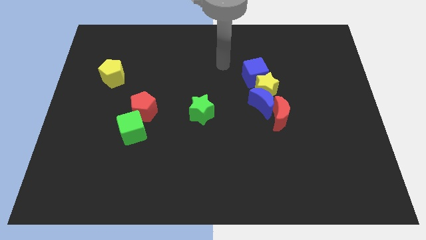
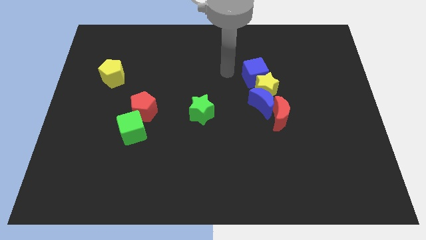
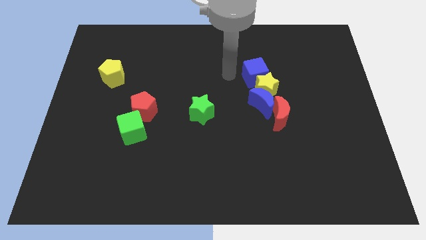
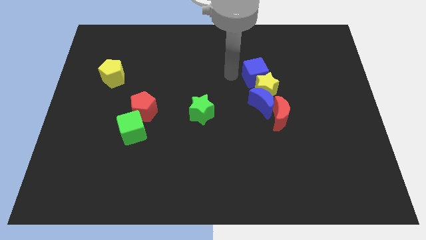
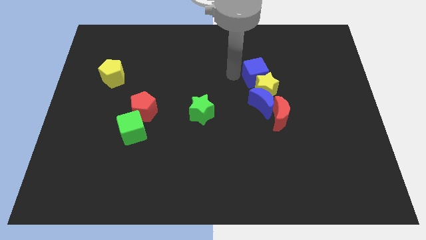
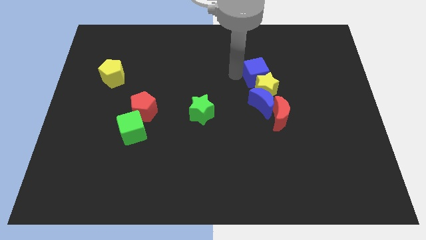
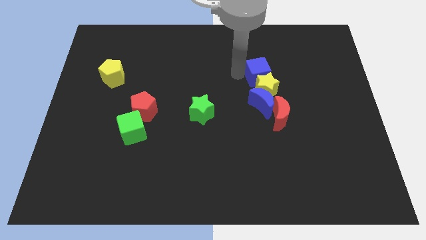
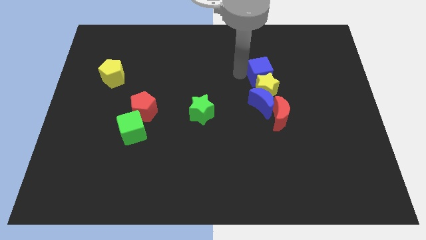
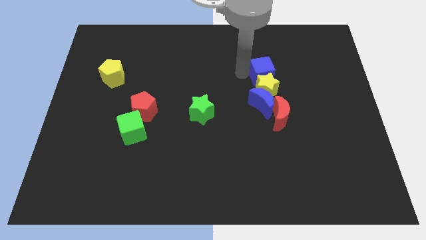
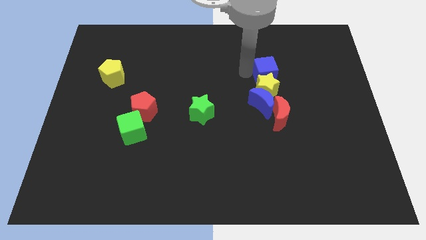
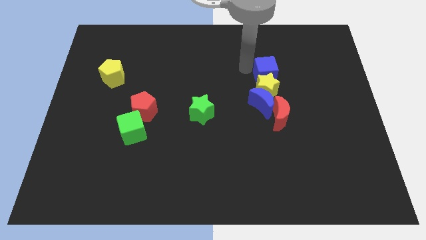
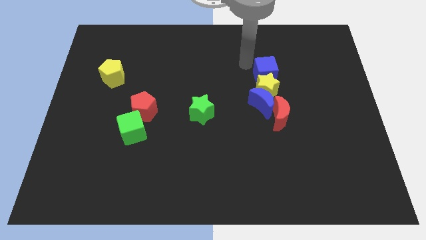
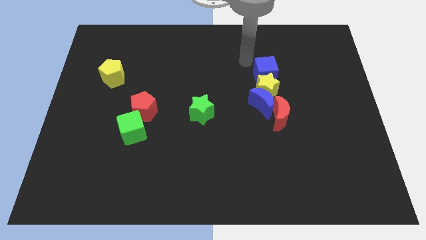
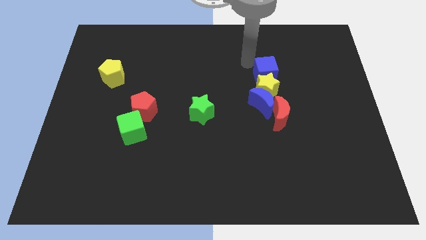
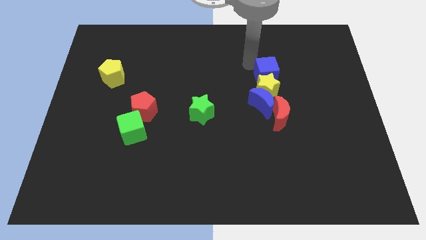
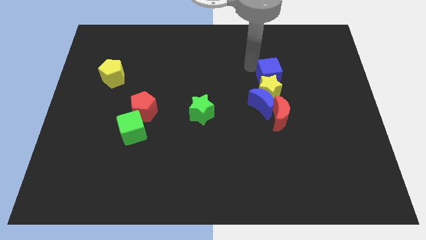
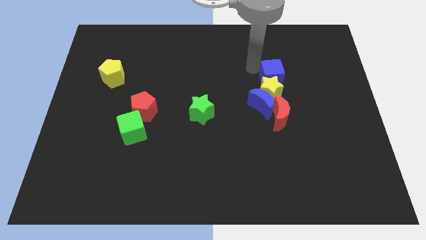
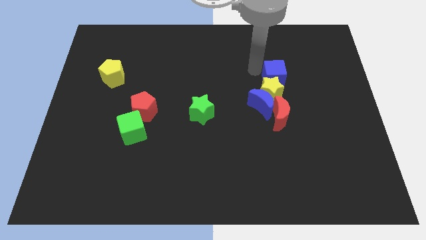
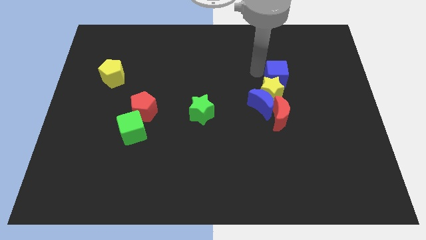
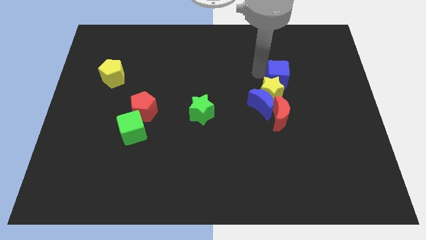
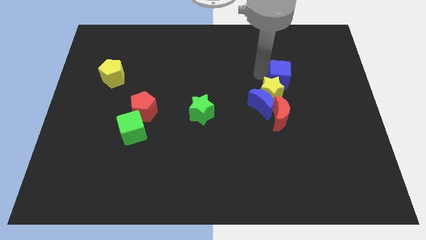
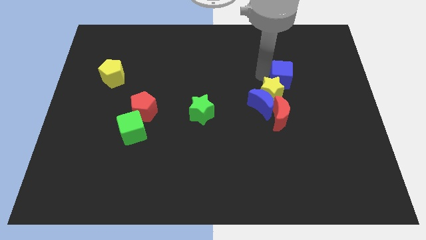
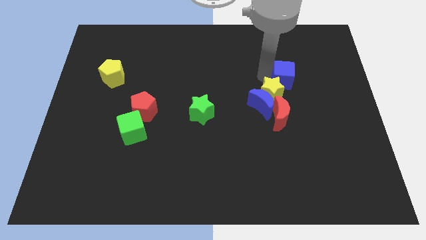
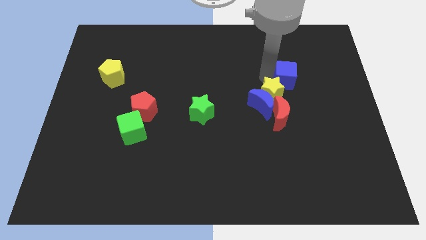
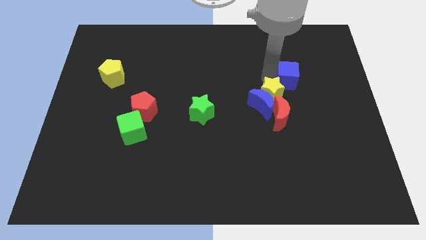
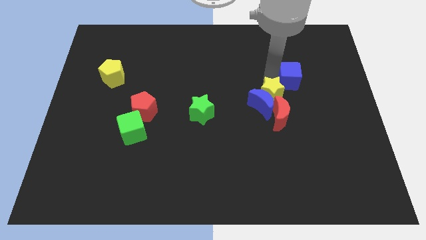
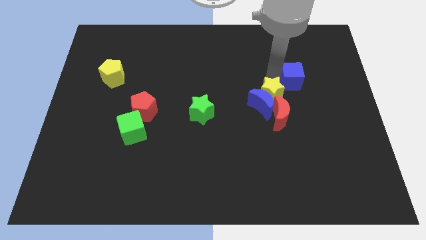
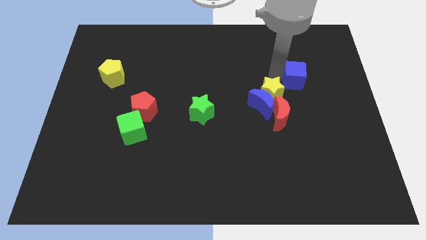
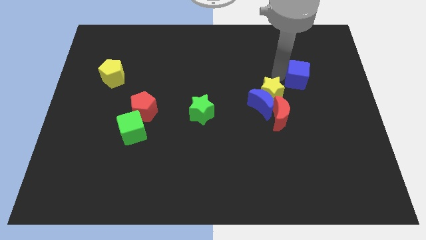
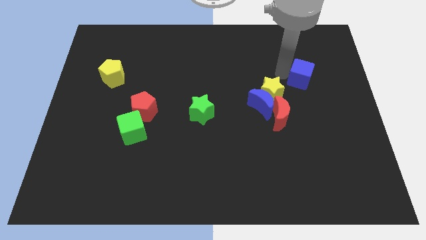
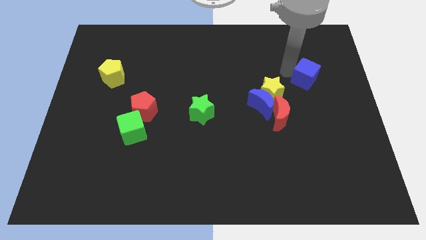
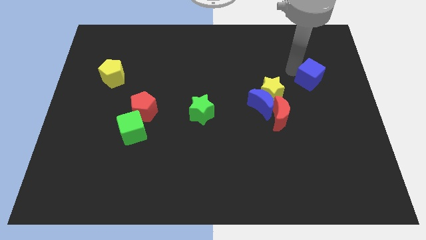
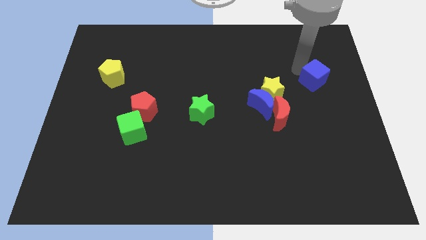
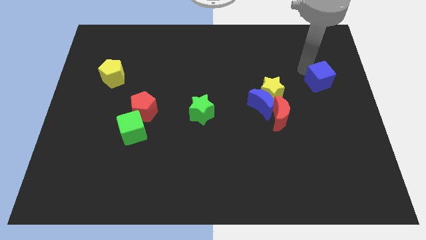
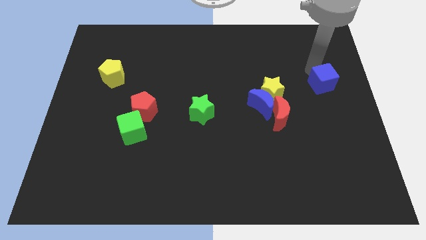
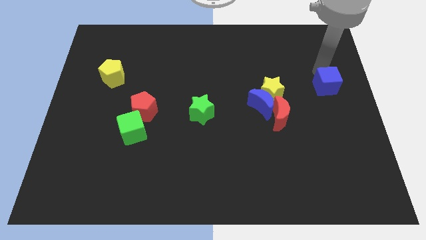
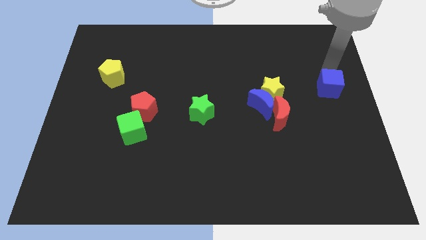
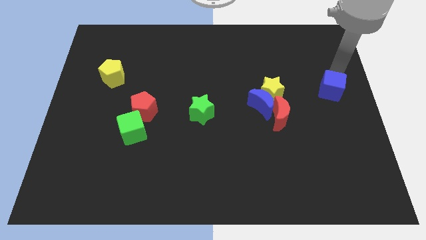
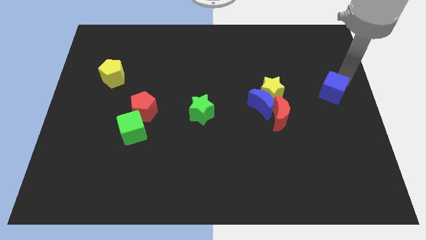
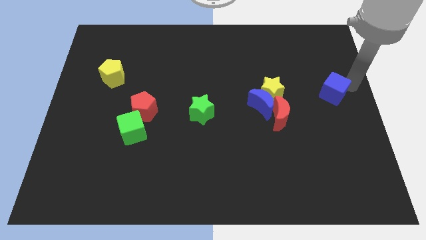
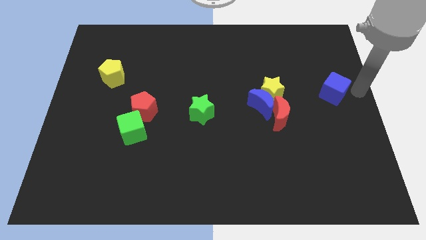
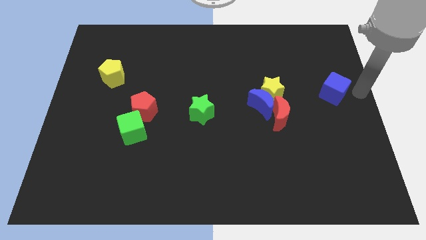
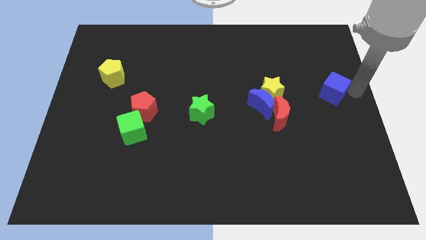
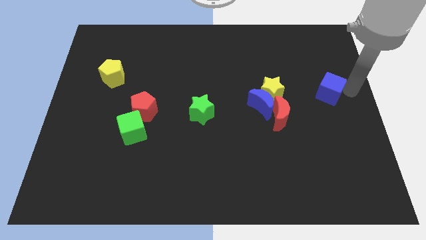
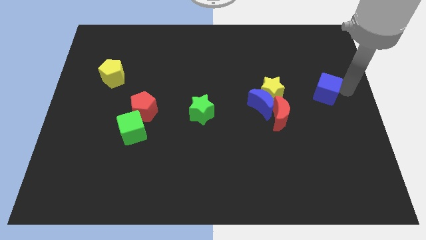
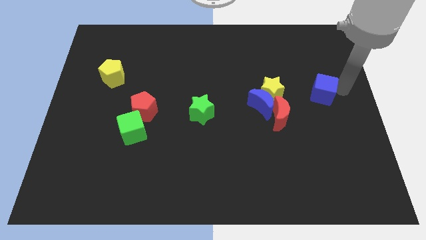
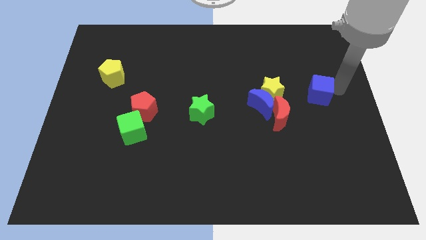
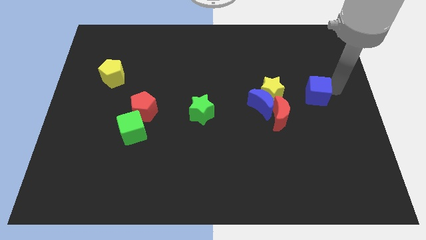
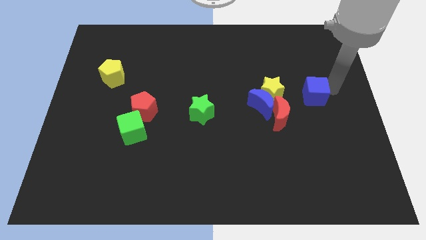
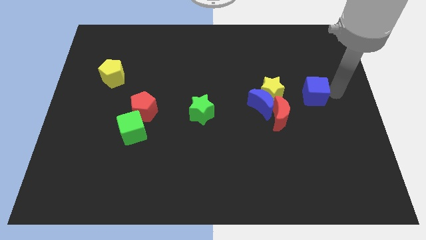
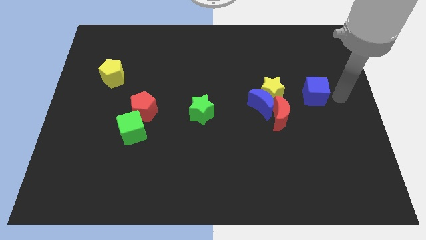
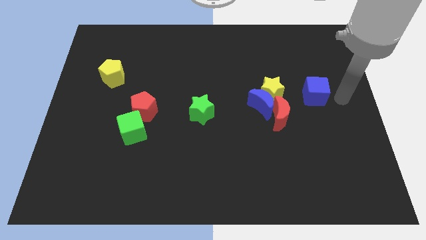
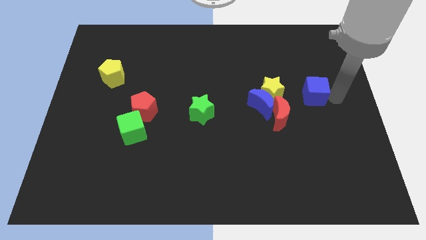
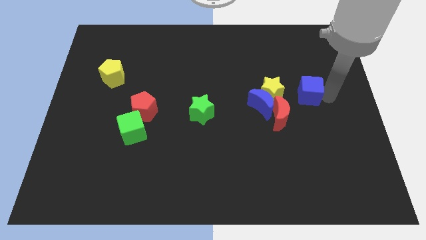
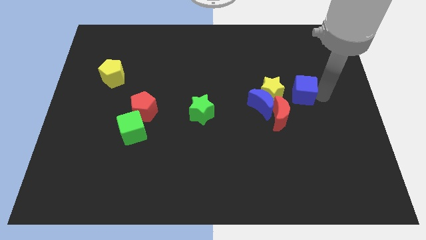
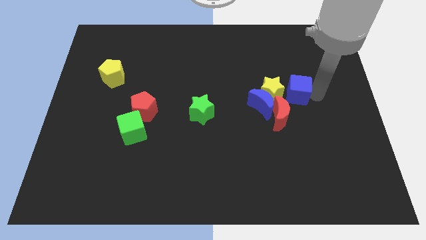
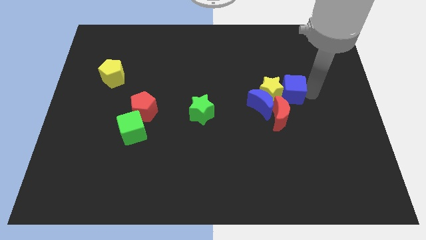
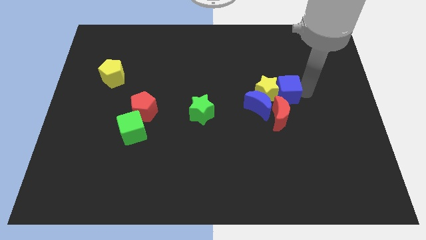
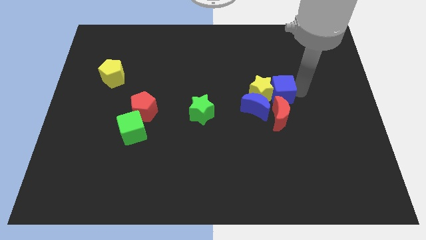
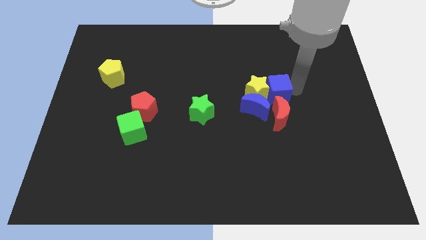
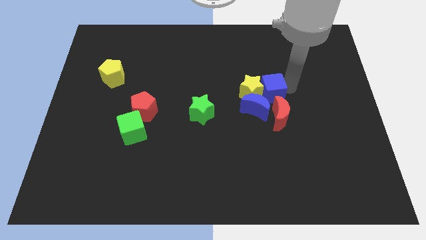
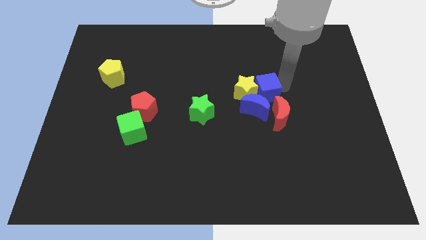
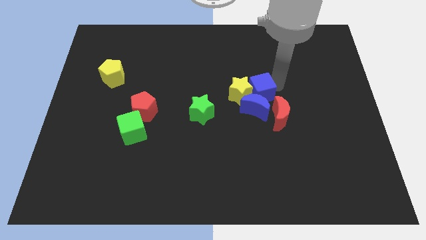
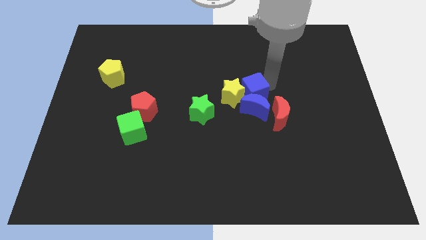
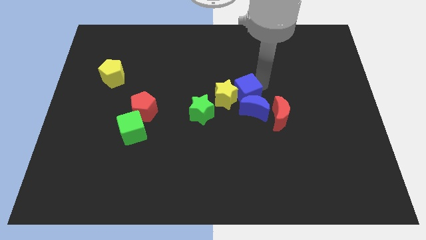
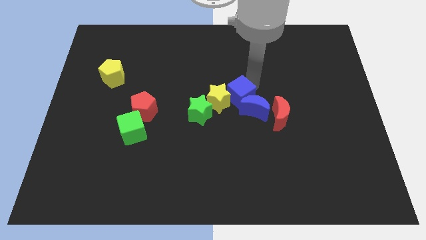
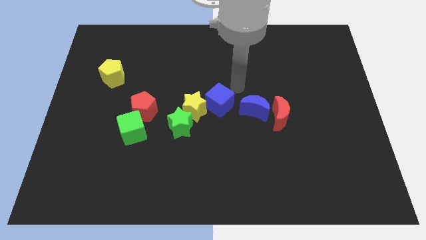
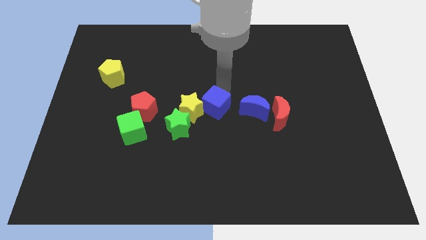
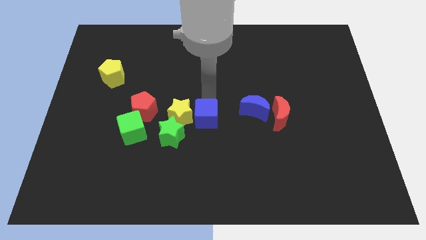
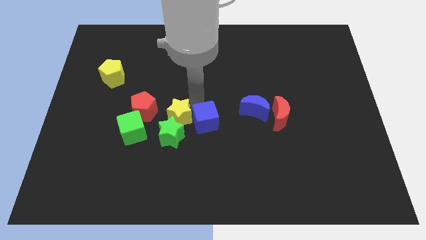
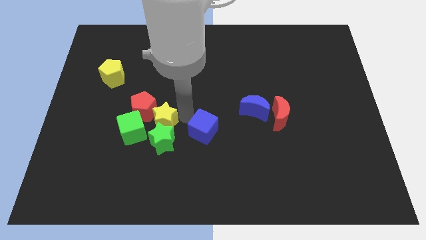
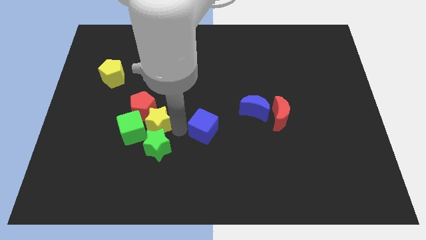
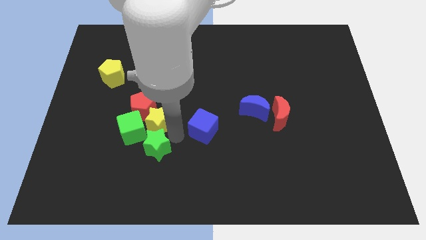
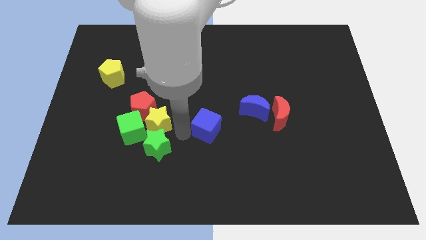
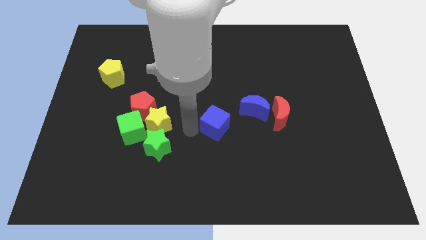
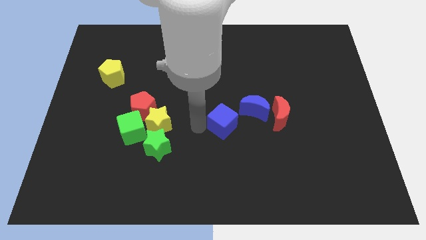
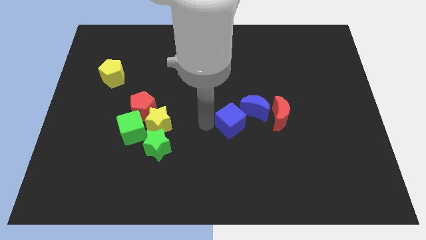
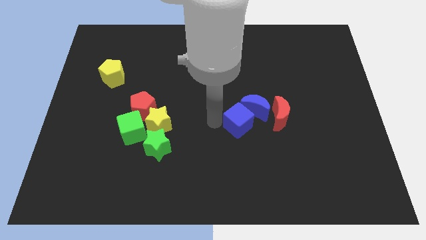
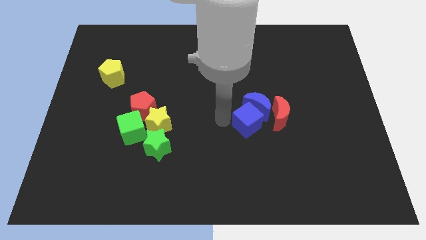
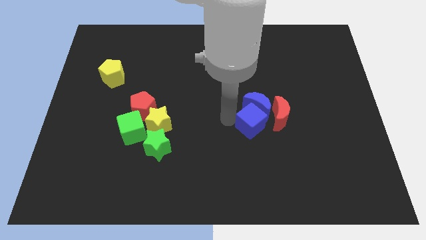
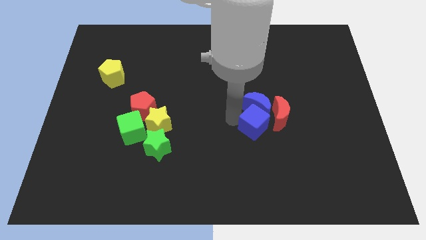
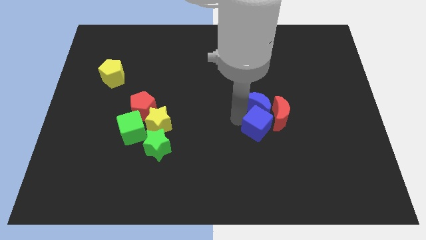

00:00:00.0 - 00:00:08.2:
slide the blue cube towards the red moon
